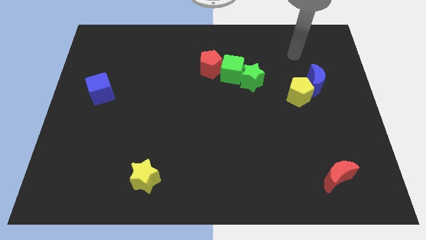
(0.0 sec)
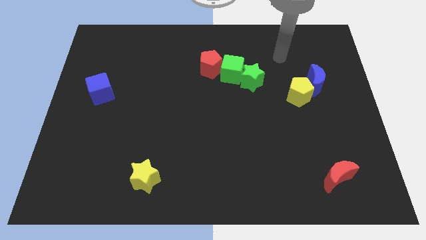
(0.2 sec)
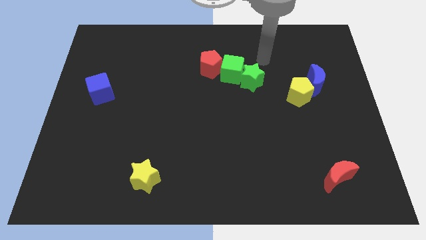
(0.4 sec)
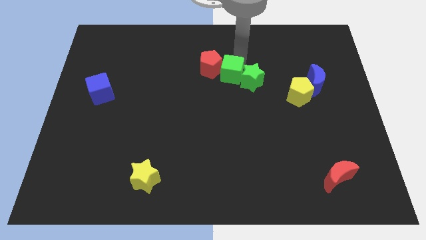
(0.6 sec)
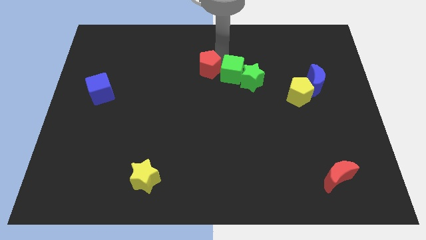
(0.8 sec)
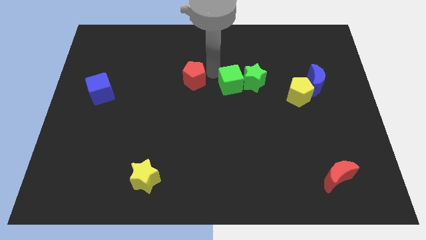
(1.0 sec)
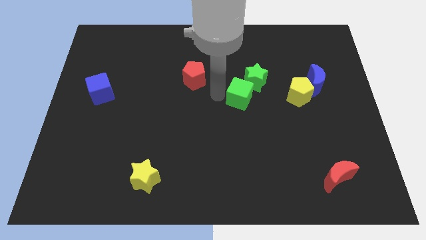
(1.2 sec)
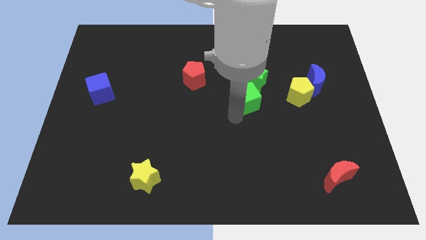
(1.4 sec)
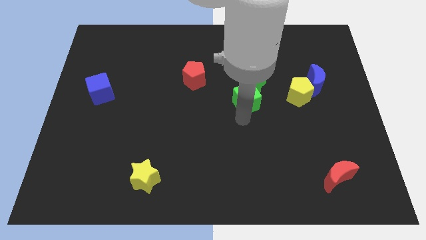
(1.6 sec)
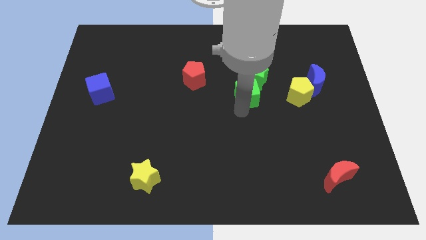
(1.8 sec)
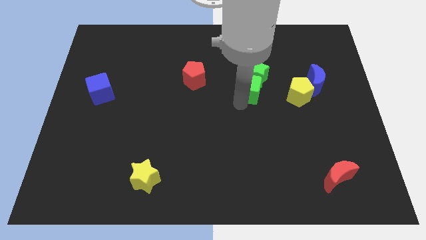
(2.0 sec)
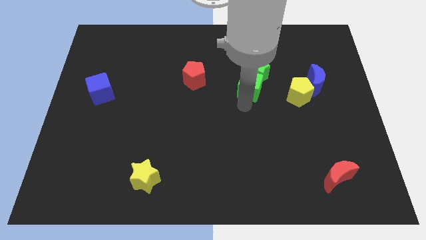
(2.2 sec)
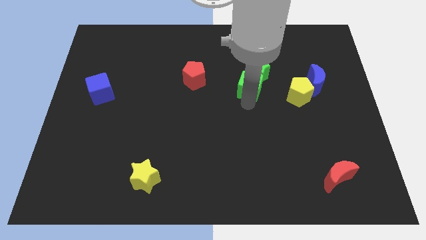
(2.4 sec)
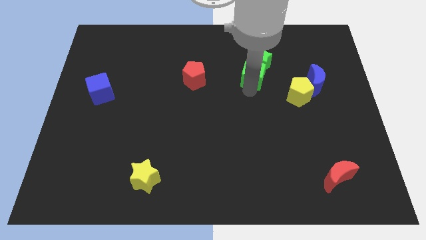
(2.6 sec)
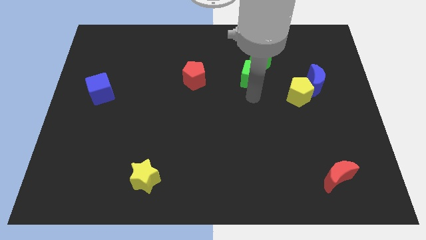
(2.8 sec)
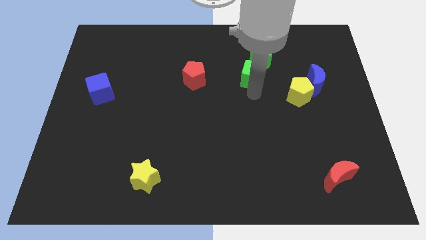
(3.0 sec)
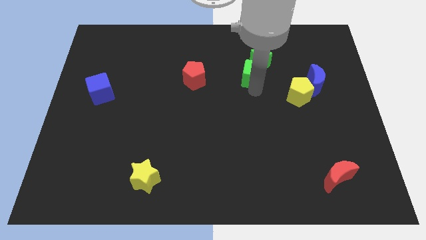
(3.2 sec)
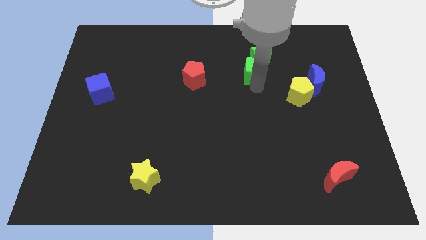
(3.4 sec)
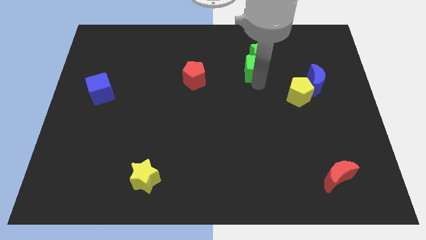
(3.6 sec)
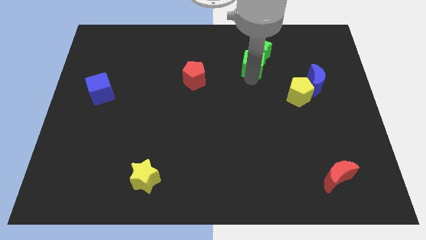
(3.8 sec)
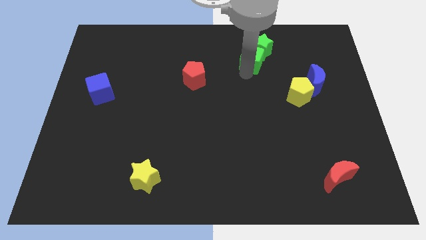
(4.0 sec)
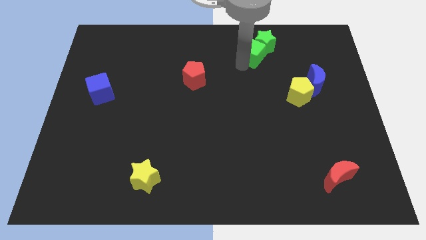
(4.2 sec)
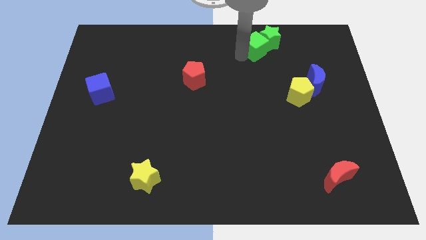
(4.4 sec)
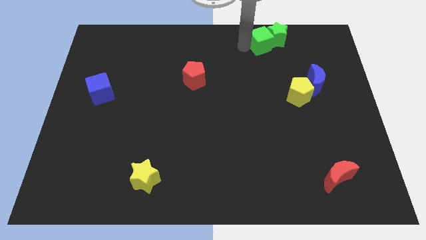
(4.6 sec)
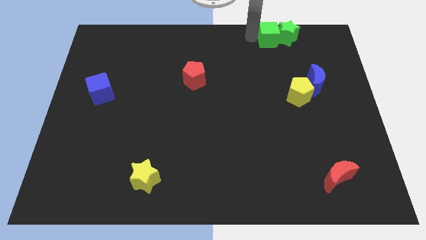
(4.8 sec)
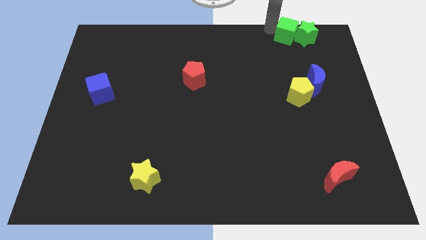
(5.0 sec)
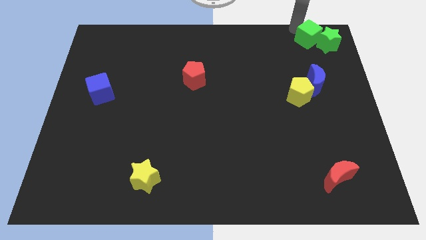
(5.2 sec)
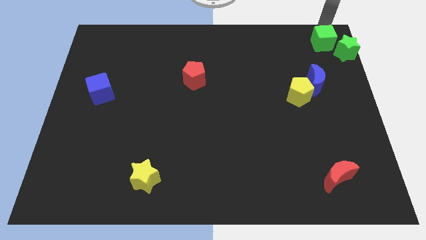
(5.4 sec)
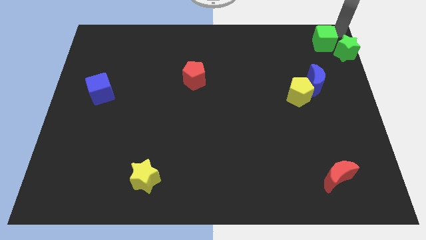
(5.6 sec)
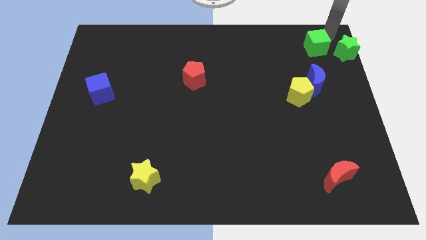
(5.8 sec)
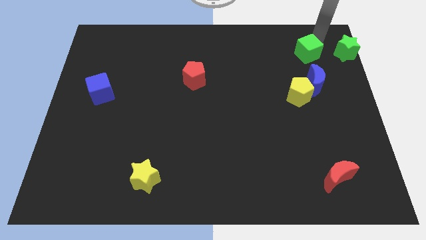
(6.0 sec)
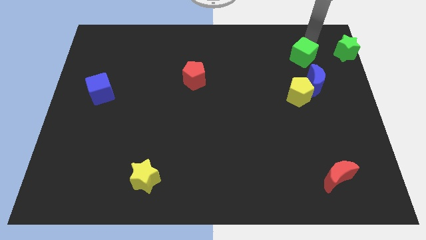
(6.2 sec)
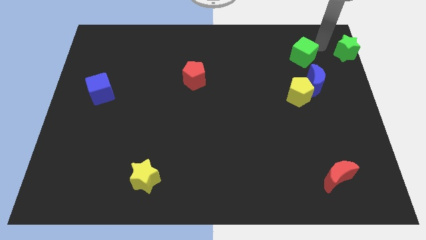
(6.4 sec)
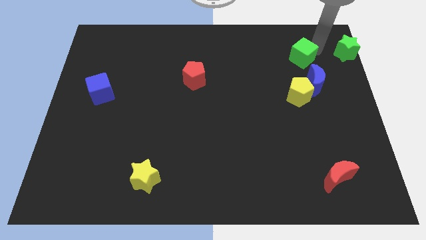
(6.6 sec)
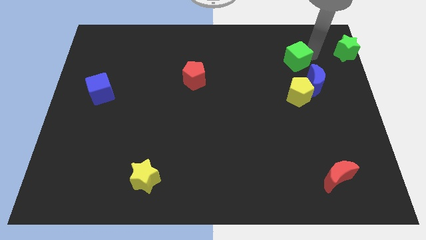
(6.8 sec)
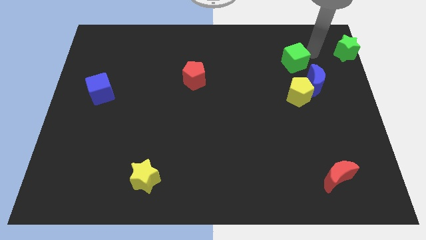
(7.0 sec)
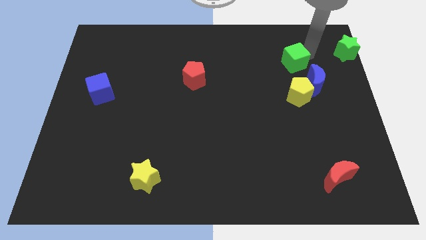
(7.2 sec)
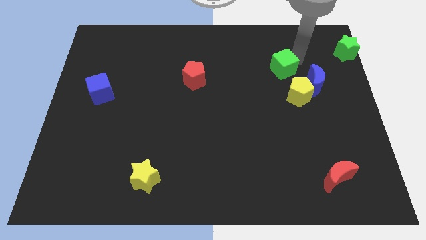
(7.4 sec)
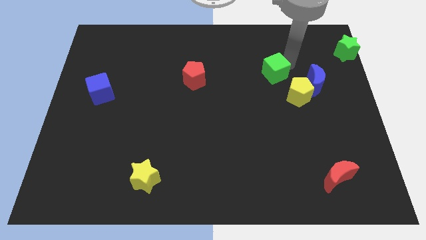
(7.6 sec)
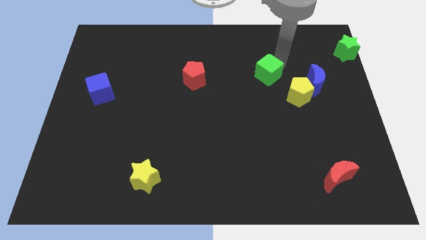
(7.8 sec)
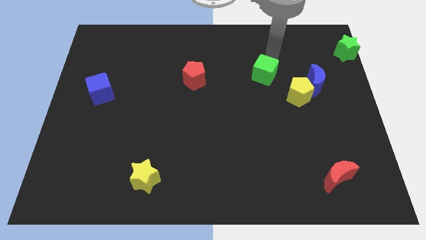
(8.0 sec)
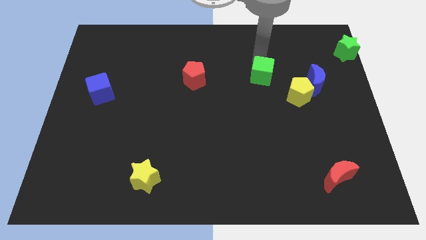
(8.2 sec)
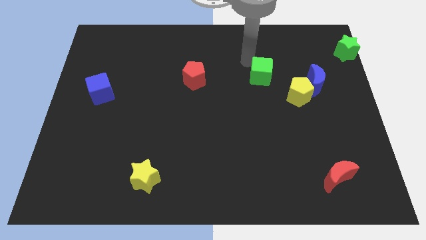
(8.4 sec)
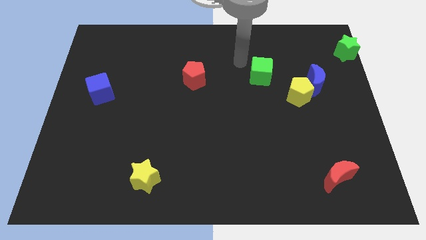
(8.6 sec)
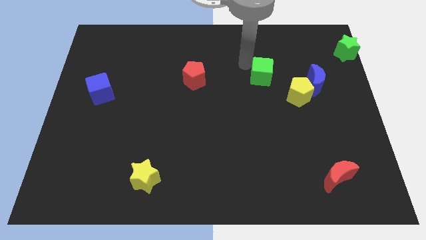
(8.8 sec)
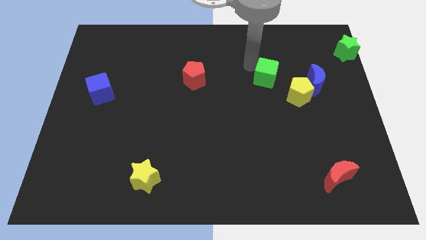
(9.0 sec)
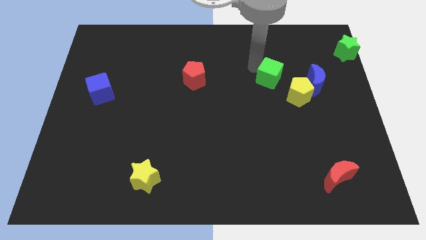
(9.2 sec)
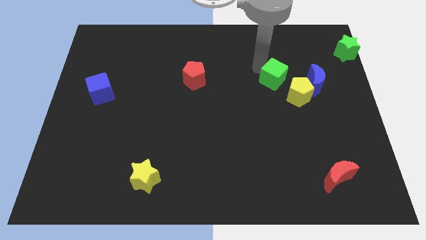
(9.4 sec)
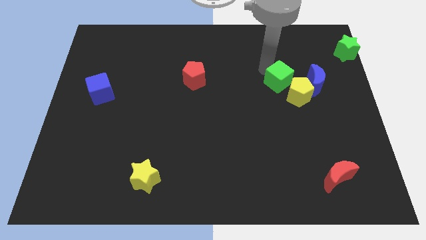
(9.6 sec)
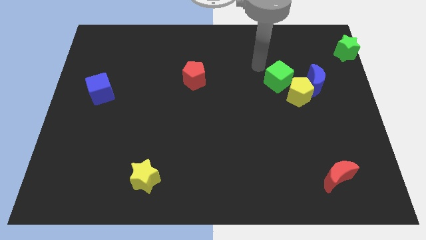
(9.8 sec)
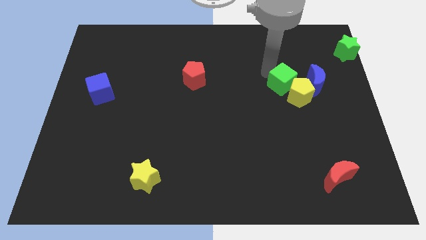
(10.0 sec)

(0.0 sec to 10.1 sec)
put the green cube next to the yellow pentagon

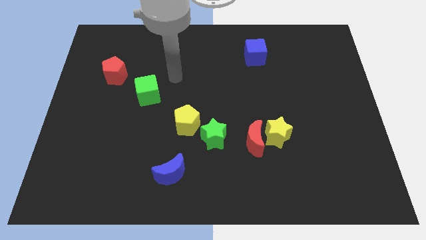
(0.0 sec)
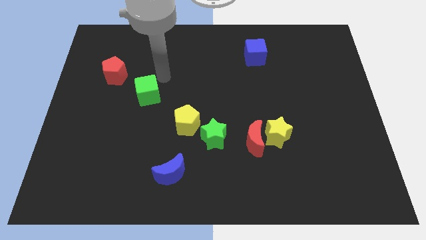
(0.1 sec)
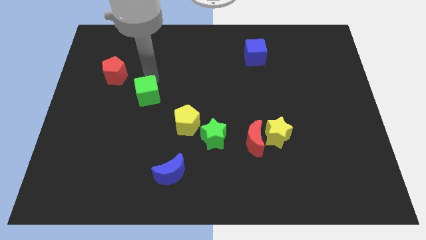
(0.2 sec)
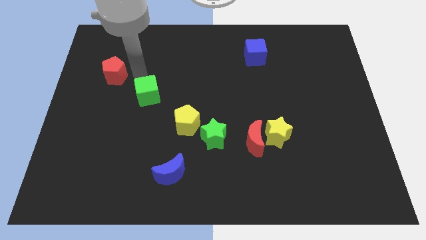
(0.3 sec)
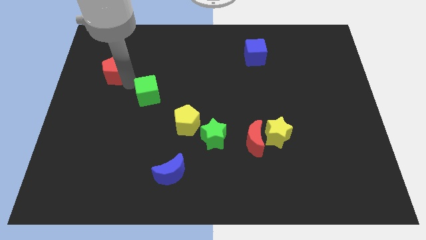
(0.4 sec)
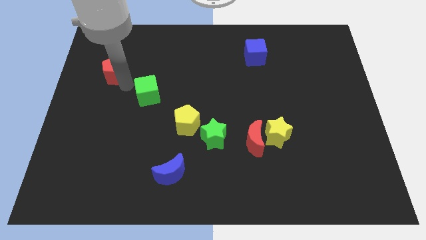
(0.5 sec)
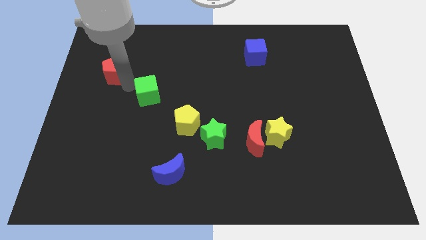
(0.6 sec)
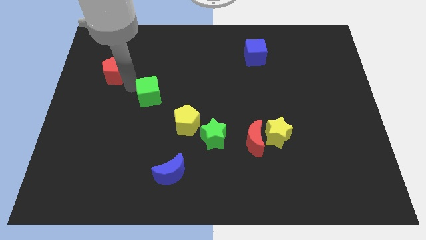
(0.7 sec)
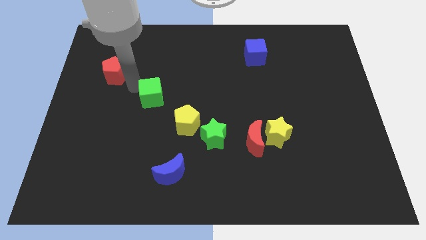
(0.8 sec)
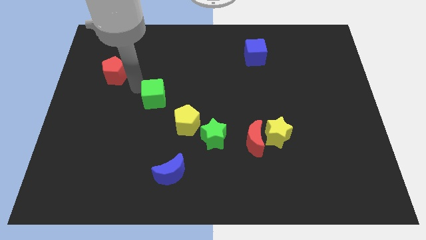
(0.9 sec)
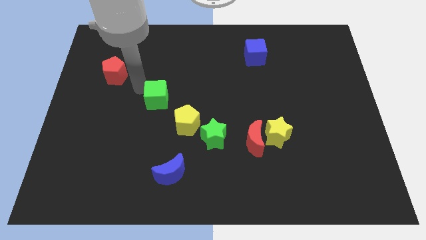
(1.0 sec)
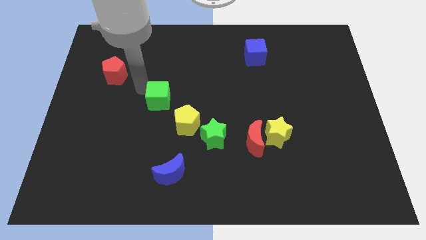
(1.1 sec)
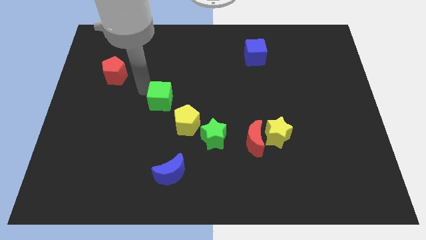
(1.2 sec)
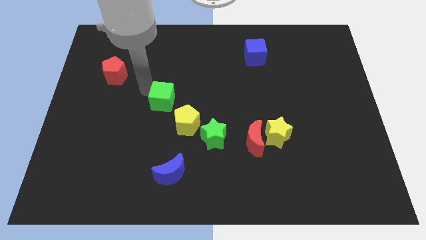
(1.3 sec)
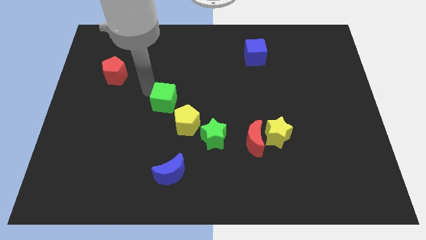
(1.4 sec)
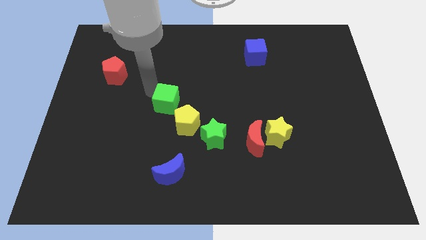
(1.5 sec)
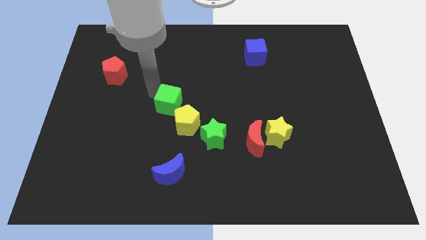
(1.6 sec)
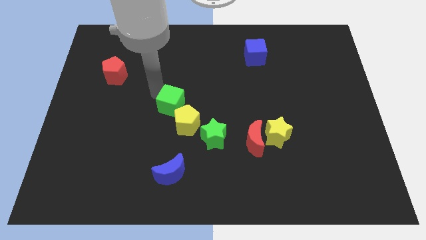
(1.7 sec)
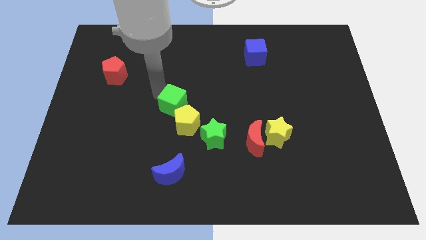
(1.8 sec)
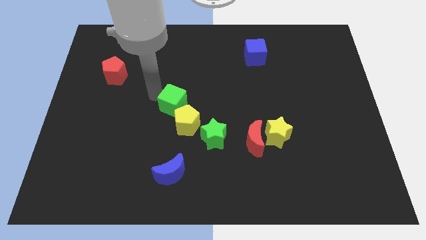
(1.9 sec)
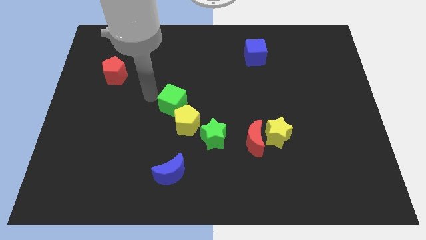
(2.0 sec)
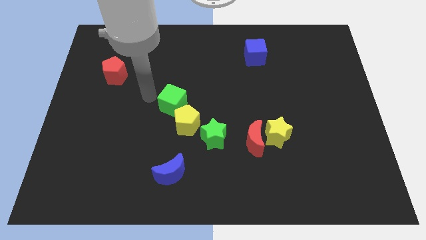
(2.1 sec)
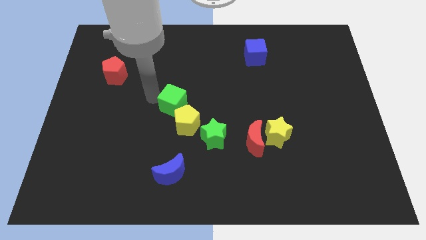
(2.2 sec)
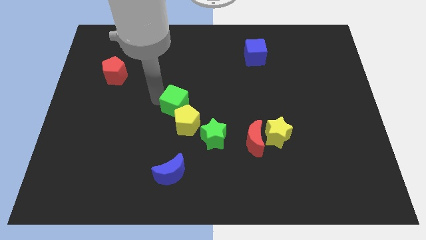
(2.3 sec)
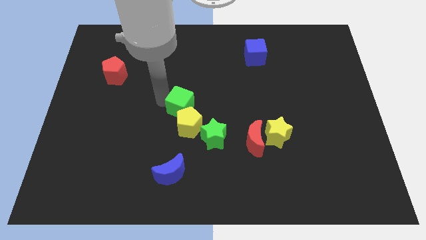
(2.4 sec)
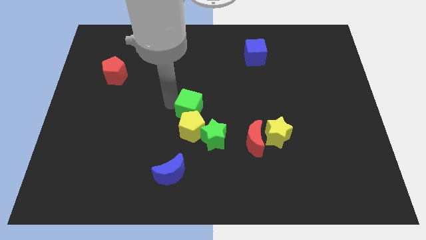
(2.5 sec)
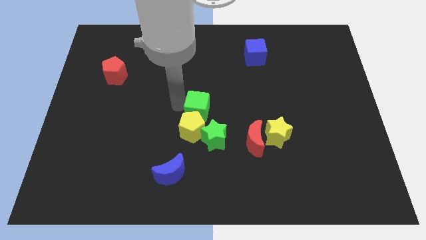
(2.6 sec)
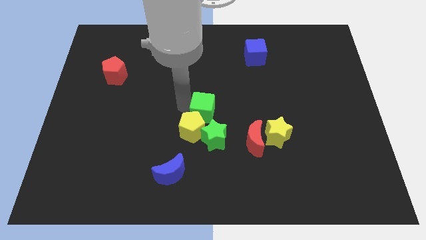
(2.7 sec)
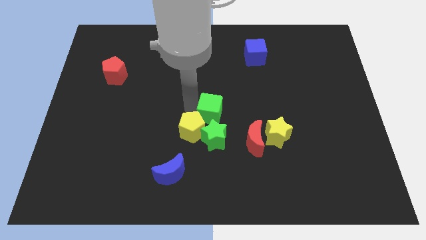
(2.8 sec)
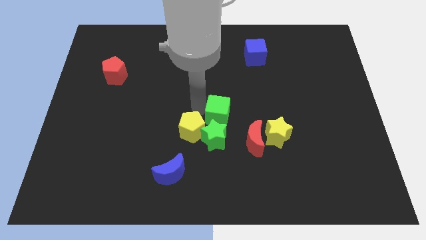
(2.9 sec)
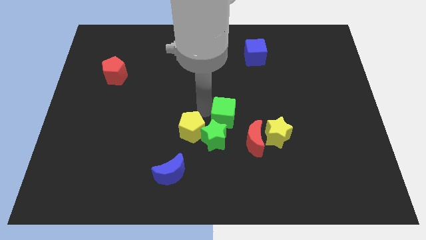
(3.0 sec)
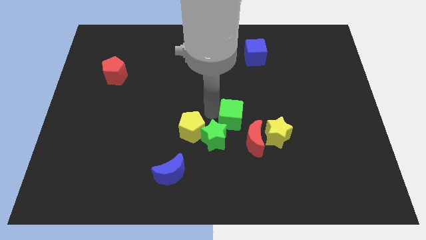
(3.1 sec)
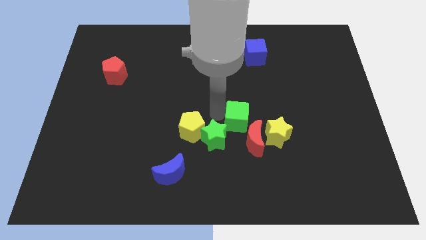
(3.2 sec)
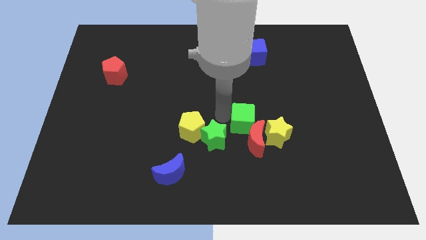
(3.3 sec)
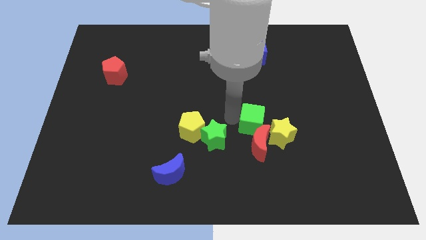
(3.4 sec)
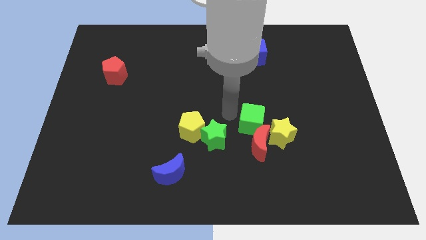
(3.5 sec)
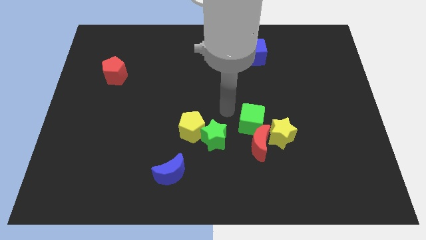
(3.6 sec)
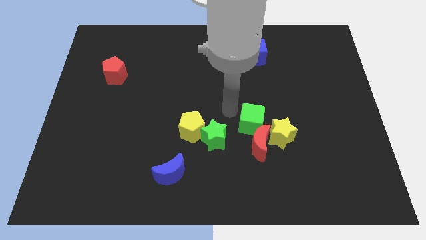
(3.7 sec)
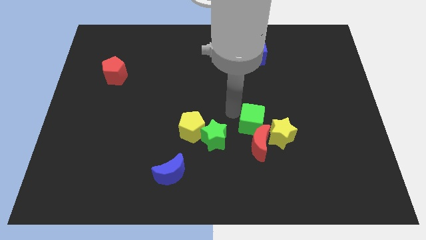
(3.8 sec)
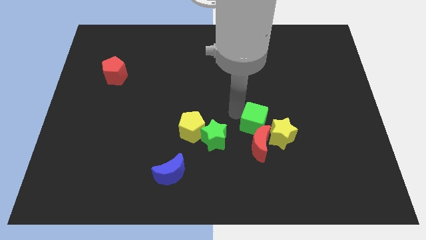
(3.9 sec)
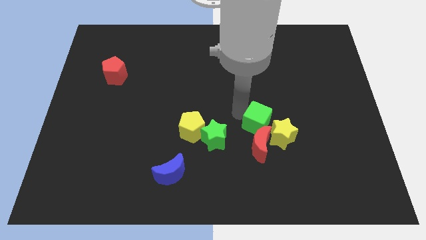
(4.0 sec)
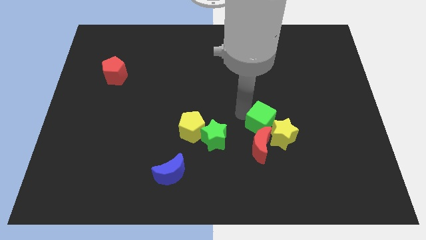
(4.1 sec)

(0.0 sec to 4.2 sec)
put the green cube towards the yellow star
